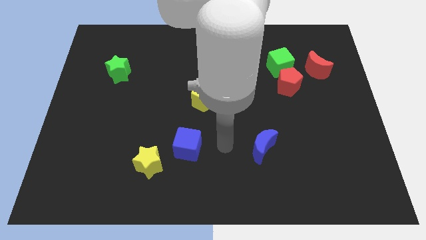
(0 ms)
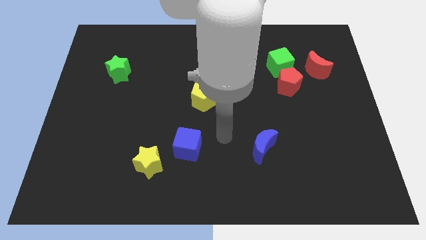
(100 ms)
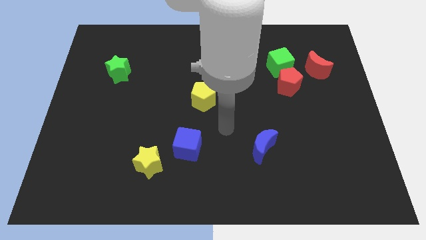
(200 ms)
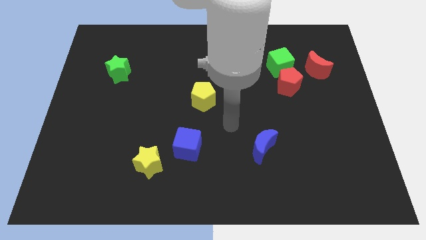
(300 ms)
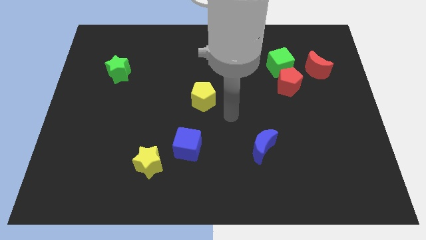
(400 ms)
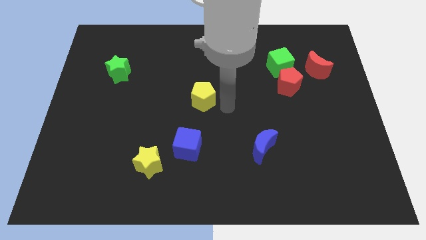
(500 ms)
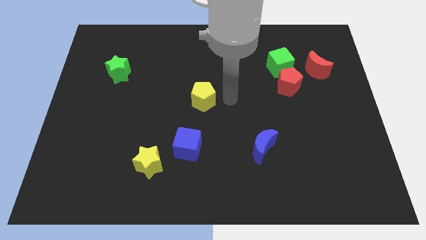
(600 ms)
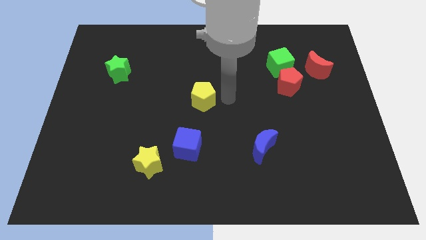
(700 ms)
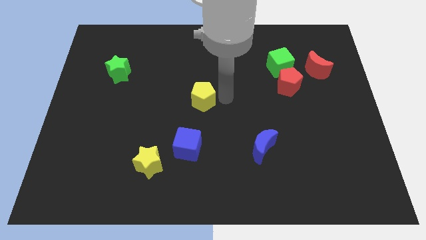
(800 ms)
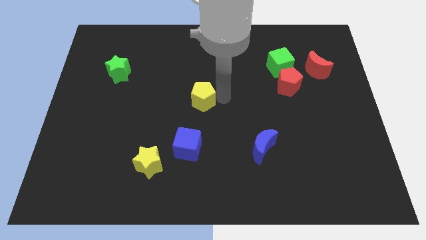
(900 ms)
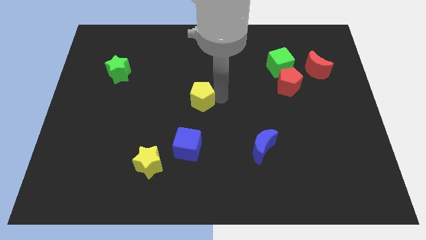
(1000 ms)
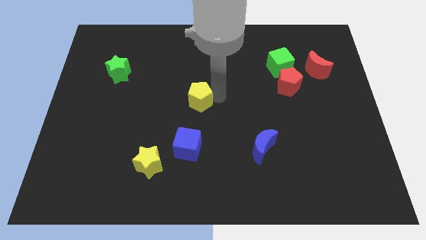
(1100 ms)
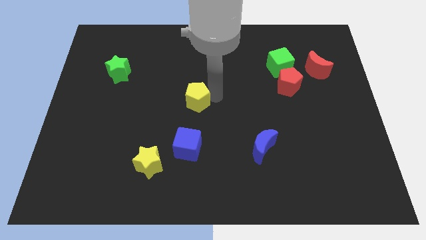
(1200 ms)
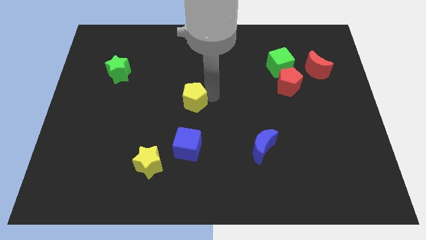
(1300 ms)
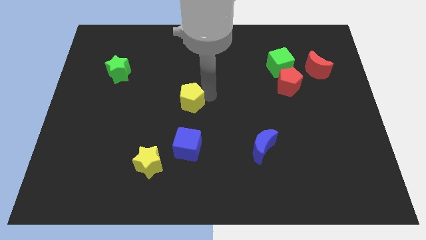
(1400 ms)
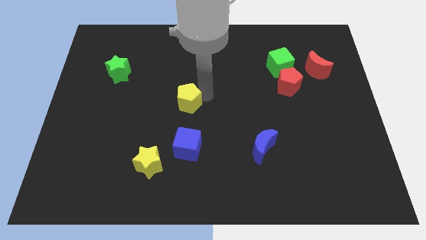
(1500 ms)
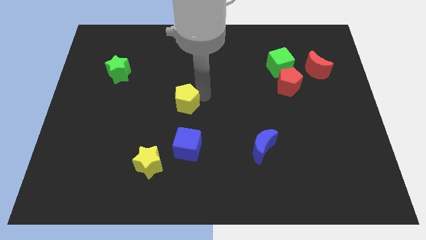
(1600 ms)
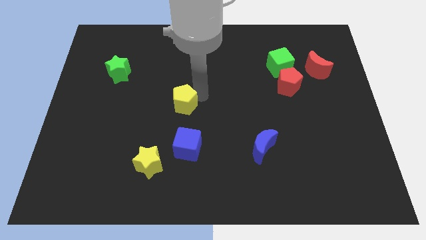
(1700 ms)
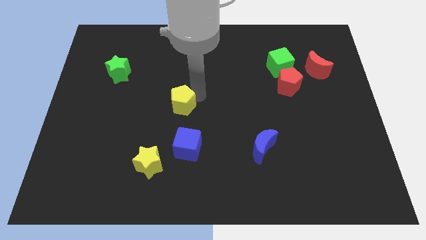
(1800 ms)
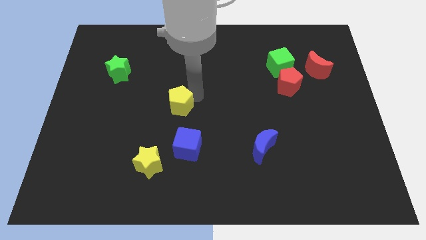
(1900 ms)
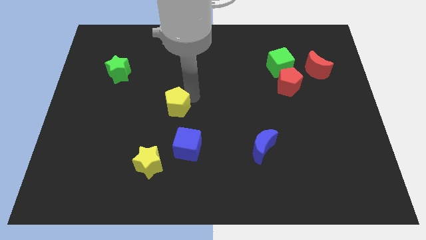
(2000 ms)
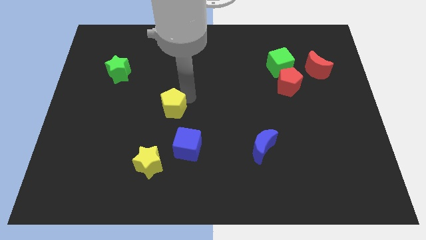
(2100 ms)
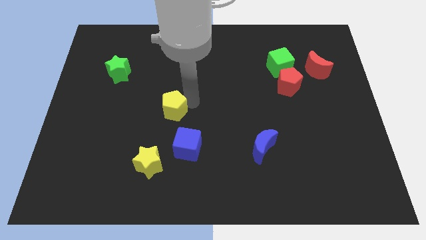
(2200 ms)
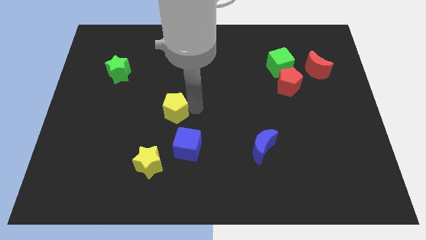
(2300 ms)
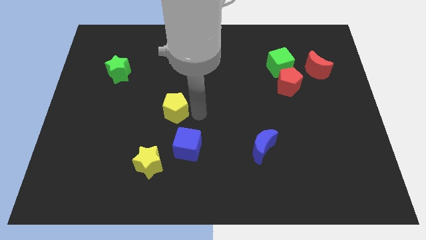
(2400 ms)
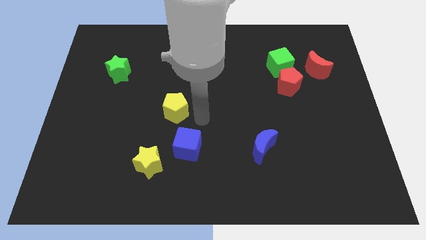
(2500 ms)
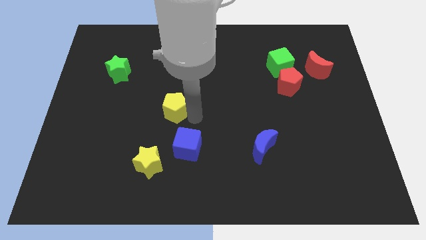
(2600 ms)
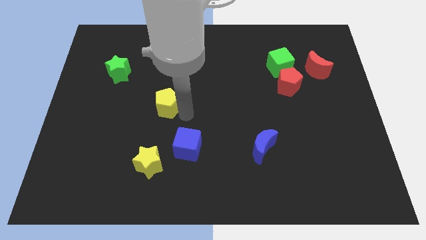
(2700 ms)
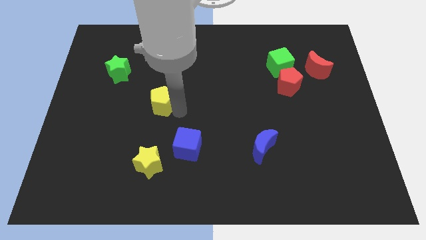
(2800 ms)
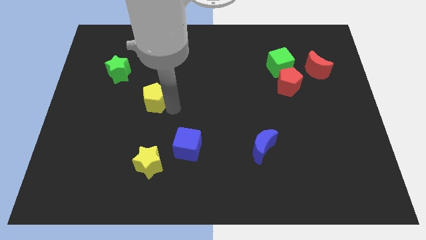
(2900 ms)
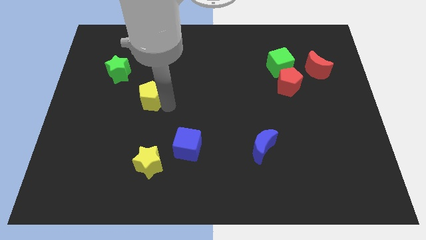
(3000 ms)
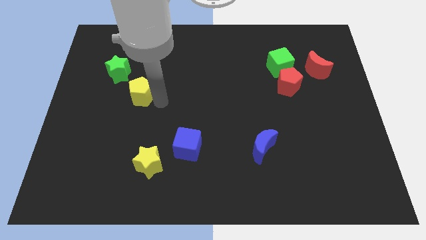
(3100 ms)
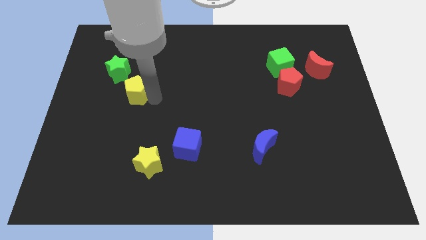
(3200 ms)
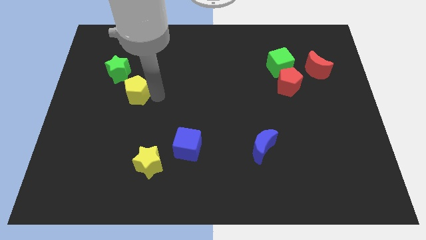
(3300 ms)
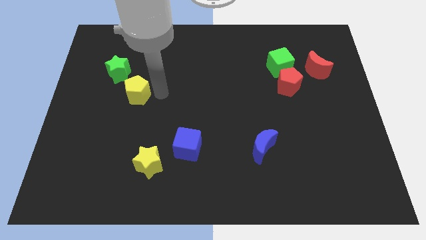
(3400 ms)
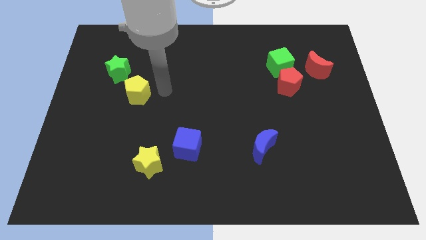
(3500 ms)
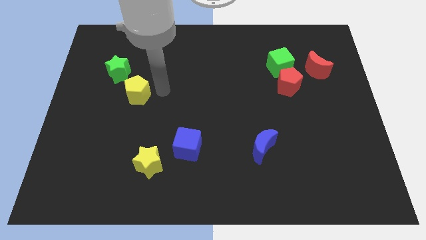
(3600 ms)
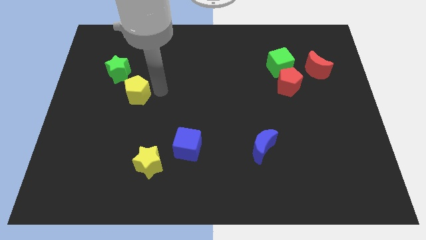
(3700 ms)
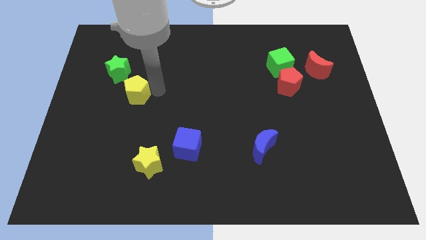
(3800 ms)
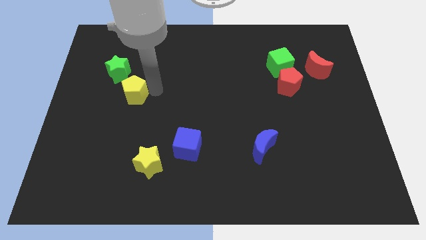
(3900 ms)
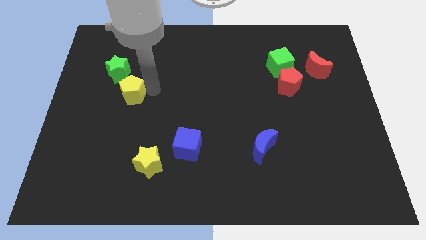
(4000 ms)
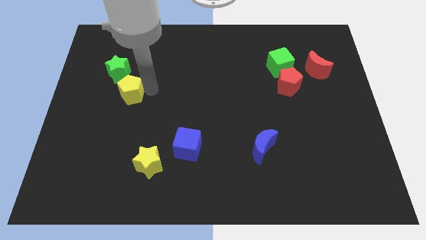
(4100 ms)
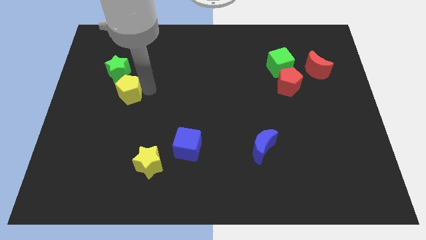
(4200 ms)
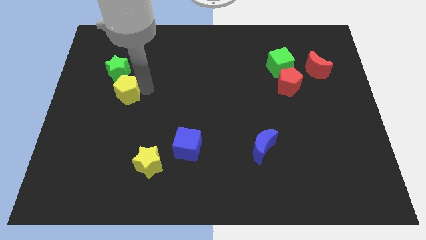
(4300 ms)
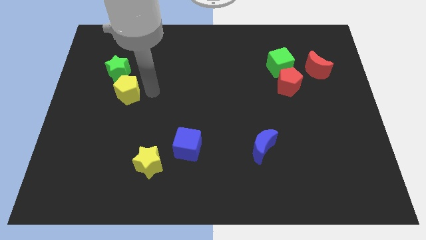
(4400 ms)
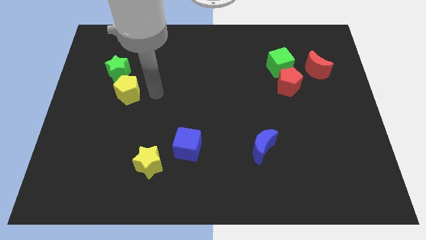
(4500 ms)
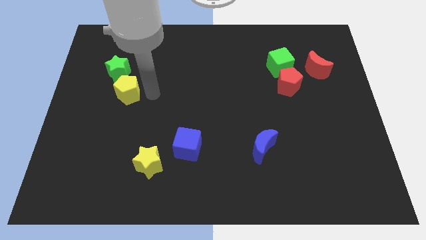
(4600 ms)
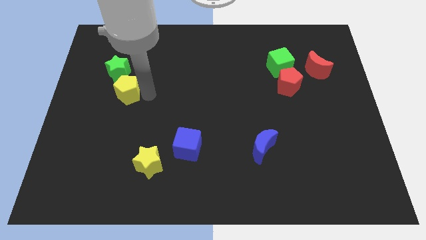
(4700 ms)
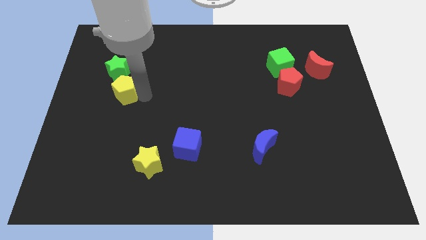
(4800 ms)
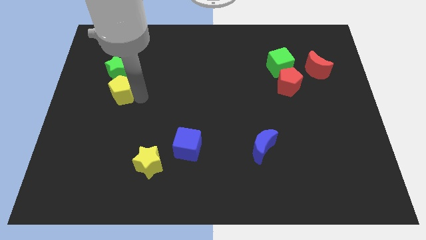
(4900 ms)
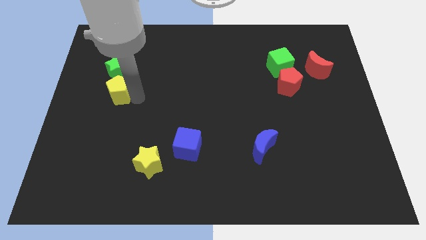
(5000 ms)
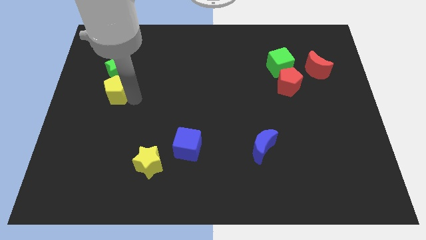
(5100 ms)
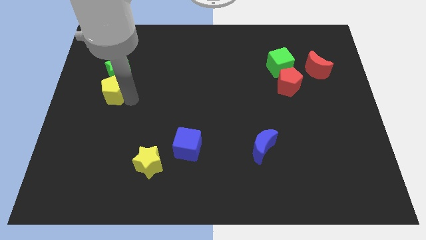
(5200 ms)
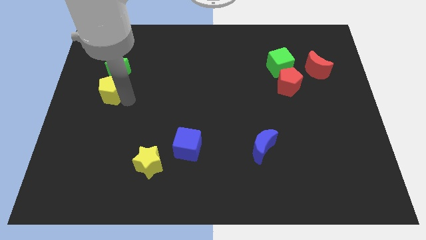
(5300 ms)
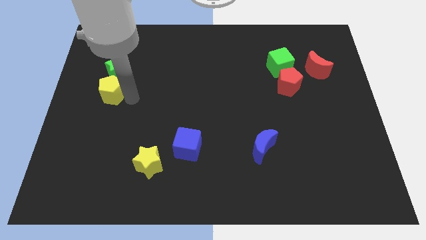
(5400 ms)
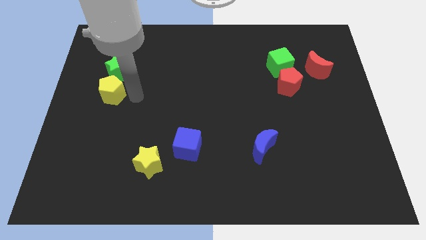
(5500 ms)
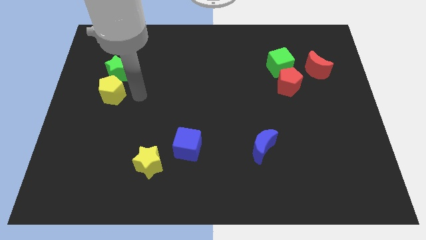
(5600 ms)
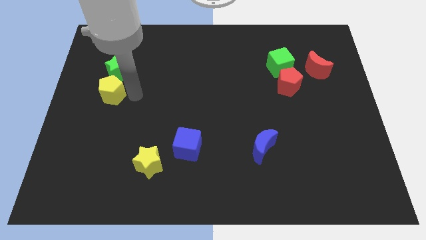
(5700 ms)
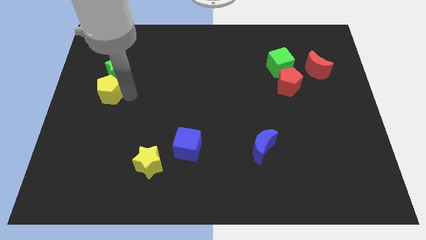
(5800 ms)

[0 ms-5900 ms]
put the yellow pentagon to the left side of the board

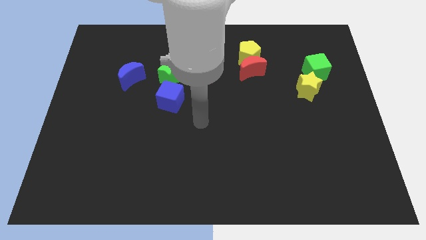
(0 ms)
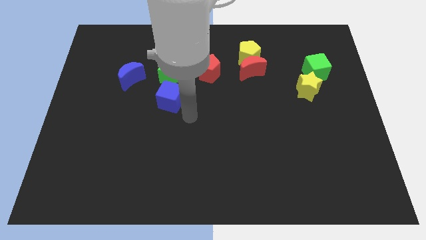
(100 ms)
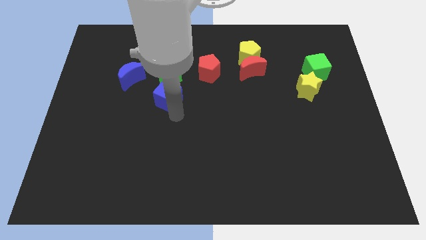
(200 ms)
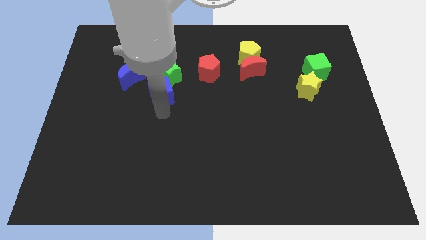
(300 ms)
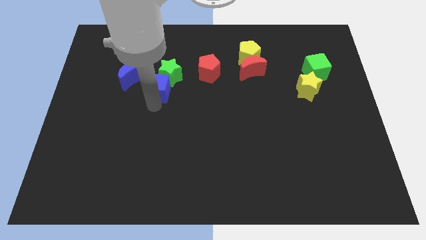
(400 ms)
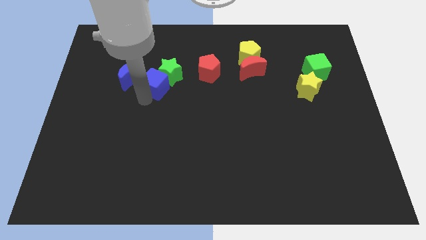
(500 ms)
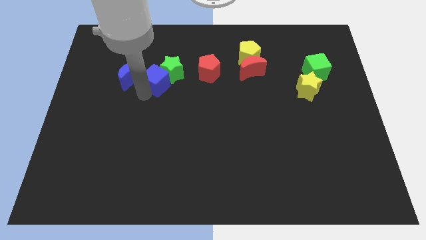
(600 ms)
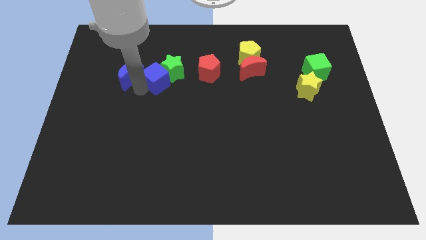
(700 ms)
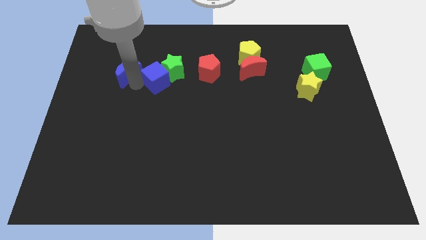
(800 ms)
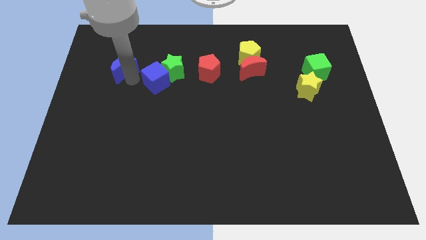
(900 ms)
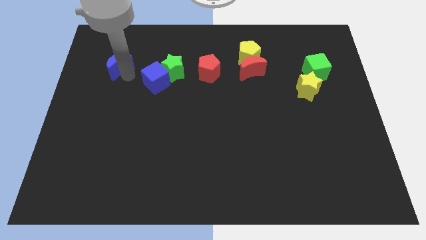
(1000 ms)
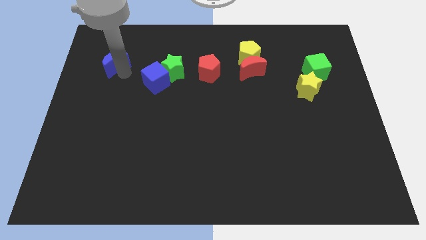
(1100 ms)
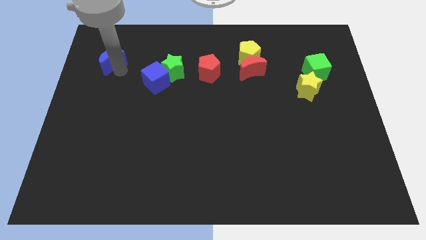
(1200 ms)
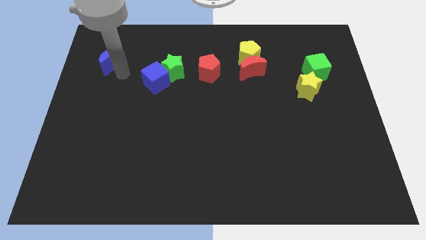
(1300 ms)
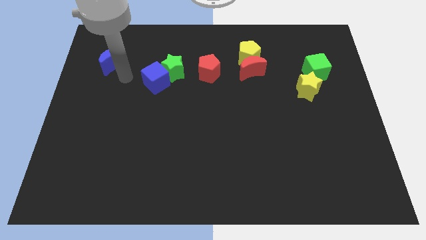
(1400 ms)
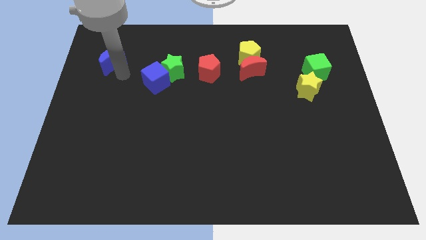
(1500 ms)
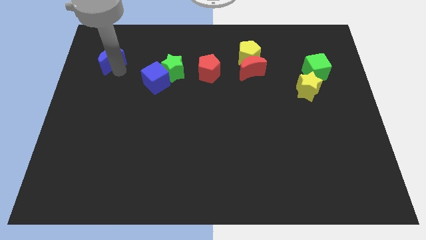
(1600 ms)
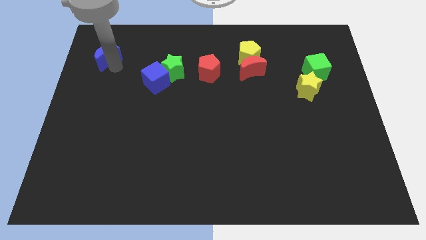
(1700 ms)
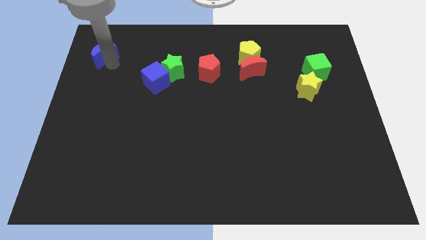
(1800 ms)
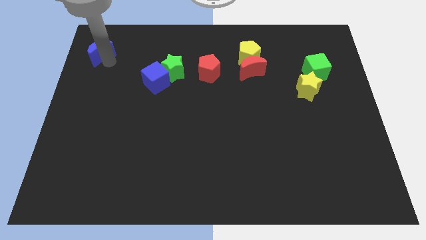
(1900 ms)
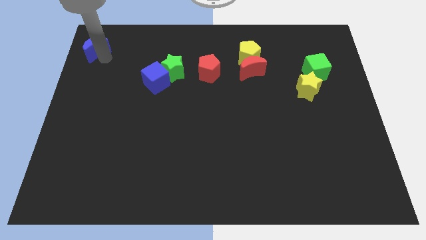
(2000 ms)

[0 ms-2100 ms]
move the blue moon to the top left of the board
